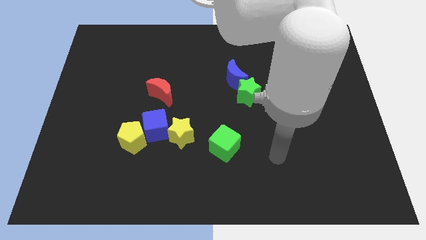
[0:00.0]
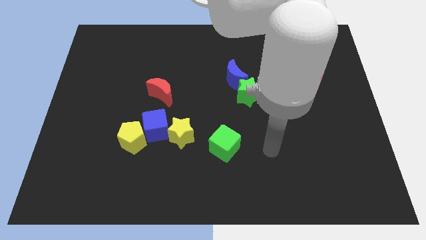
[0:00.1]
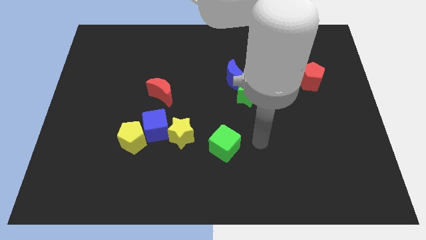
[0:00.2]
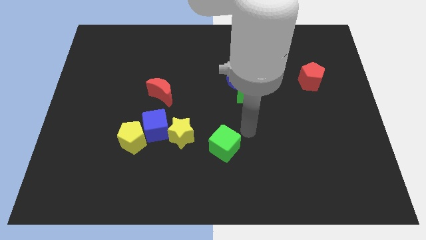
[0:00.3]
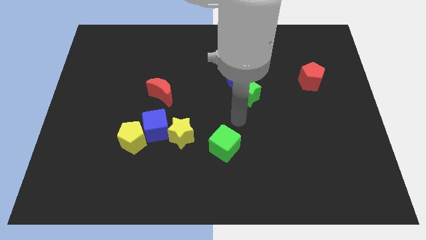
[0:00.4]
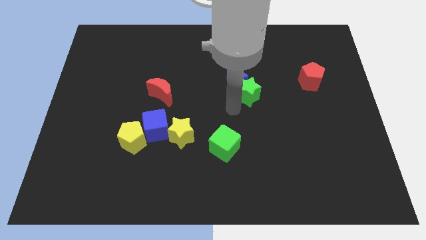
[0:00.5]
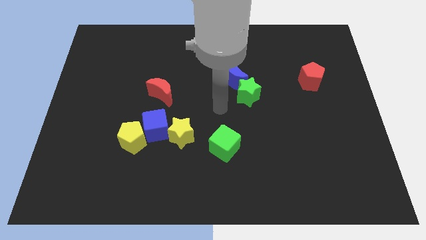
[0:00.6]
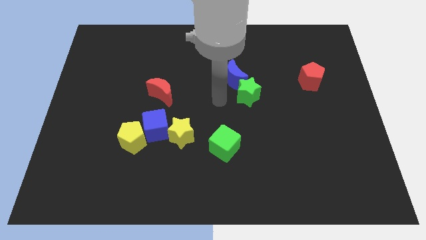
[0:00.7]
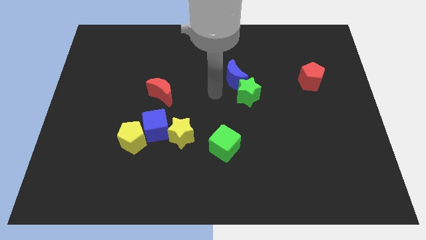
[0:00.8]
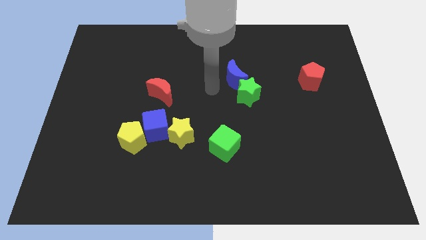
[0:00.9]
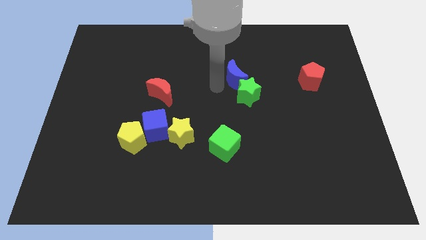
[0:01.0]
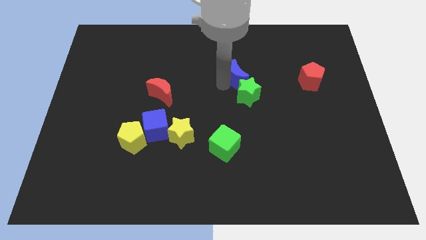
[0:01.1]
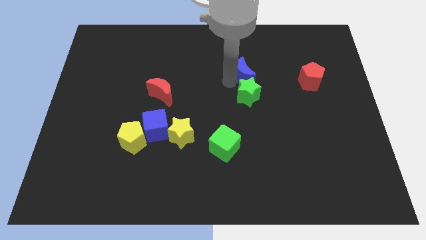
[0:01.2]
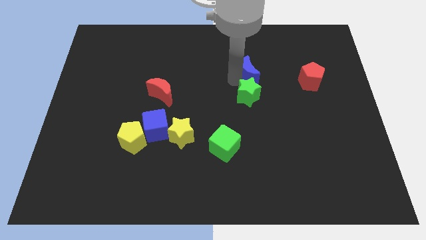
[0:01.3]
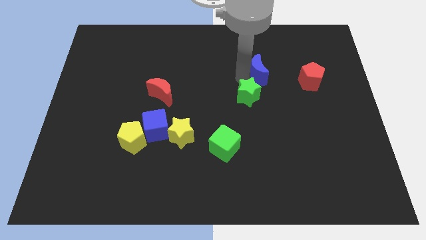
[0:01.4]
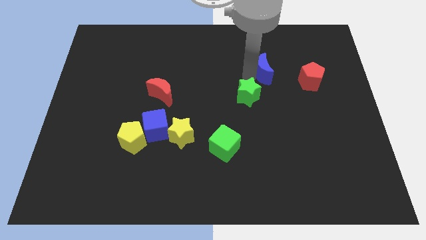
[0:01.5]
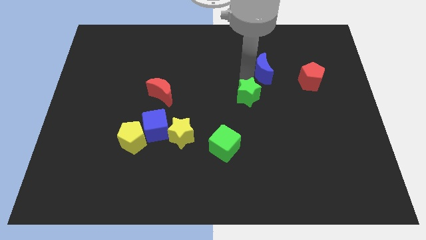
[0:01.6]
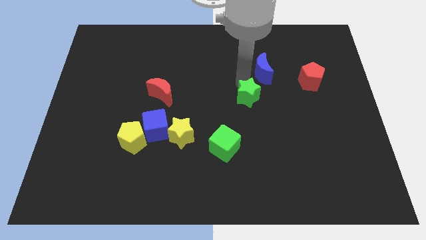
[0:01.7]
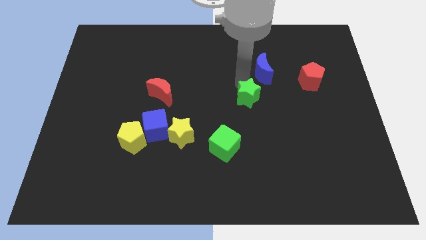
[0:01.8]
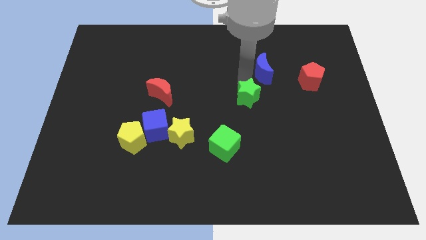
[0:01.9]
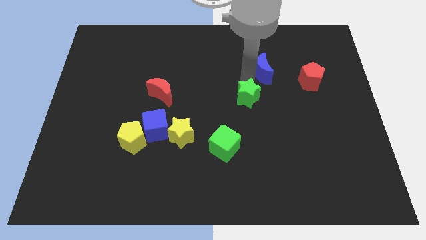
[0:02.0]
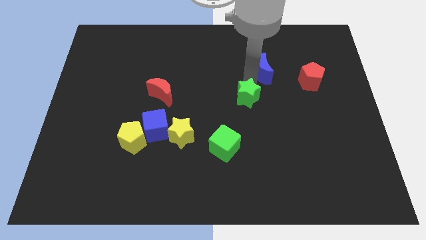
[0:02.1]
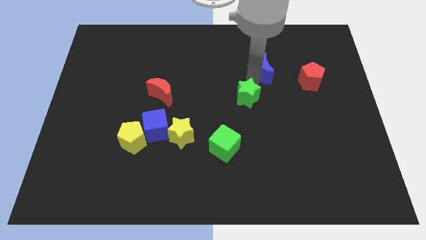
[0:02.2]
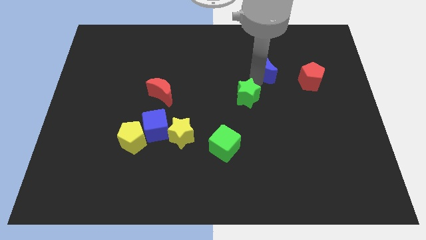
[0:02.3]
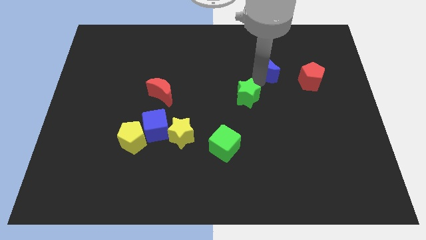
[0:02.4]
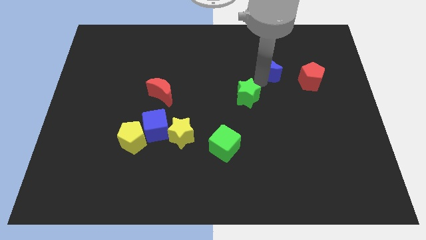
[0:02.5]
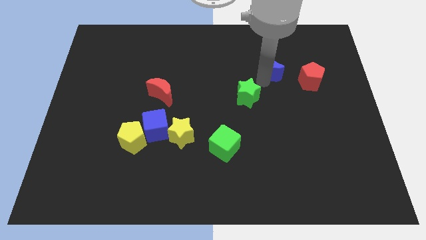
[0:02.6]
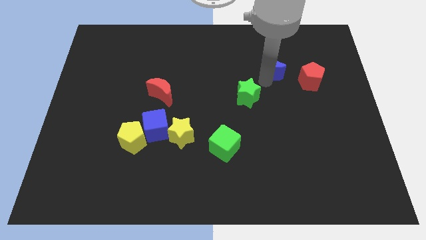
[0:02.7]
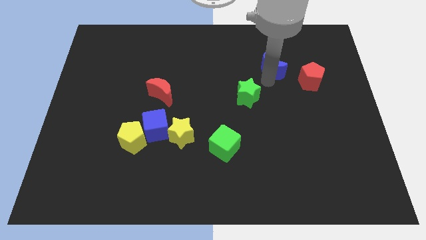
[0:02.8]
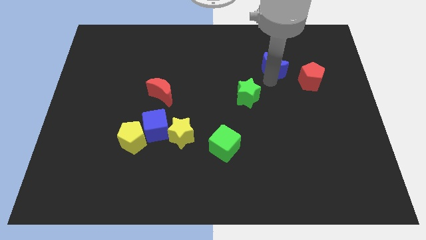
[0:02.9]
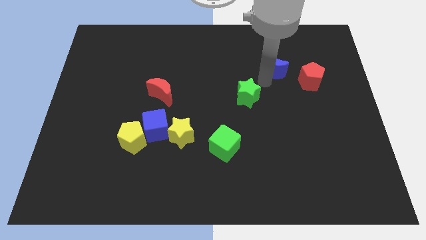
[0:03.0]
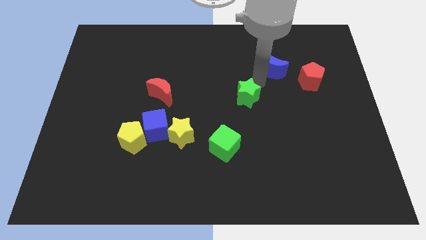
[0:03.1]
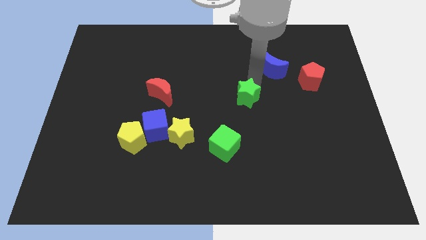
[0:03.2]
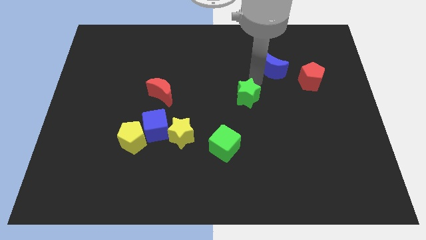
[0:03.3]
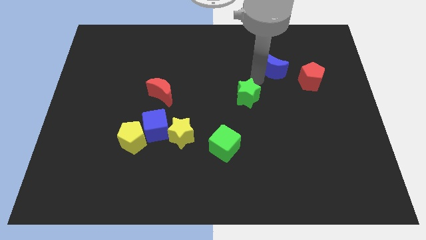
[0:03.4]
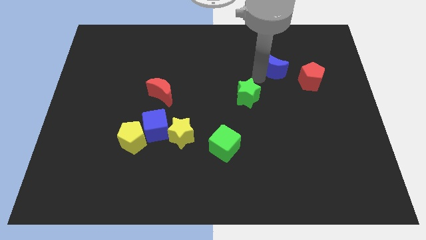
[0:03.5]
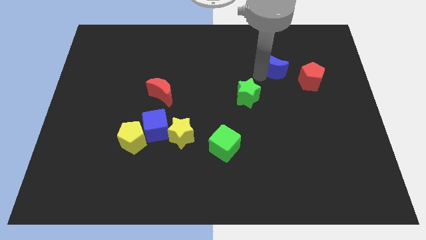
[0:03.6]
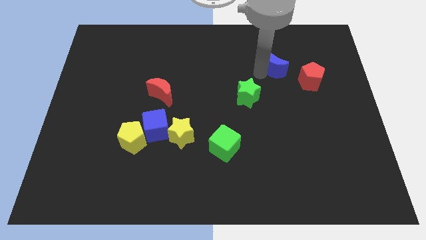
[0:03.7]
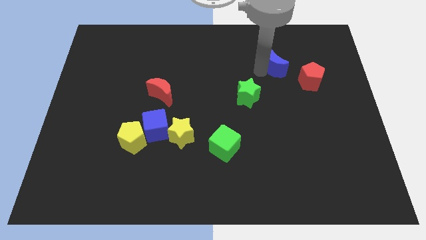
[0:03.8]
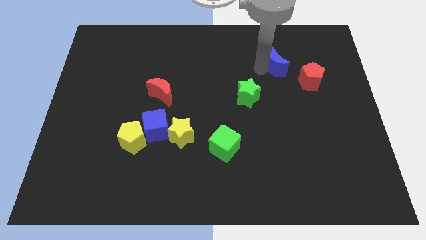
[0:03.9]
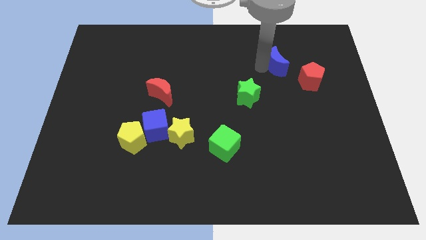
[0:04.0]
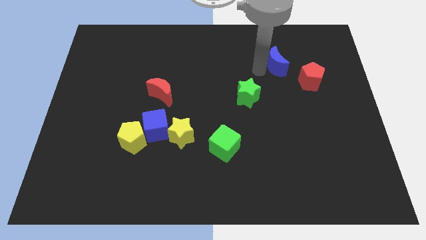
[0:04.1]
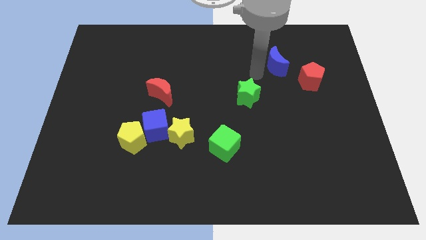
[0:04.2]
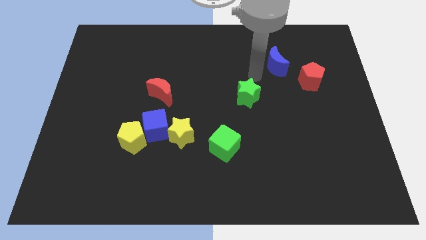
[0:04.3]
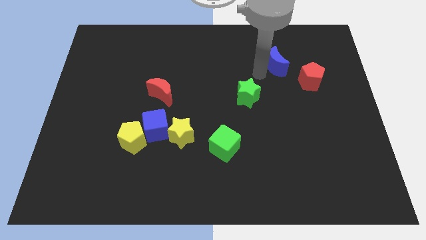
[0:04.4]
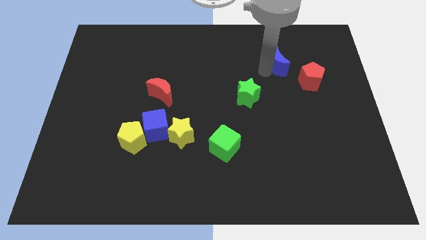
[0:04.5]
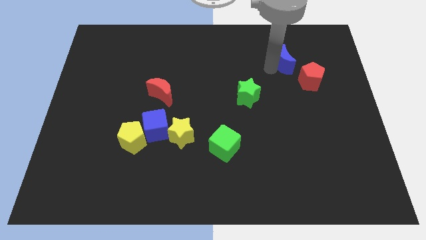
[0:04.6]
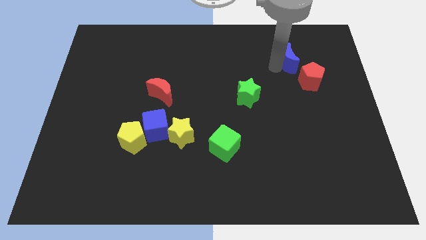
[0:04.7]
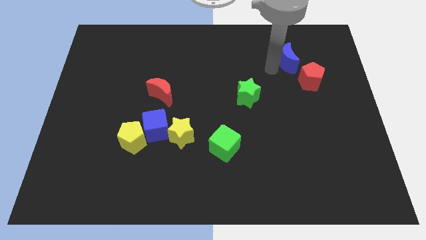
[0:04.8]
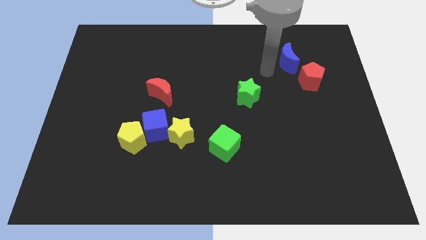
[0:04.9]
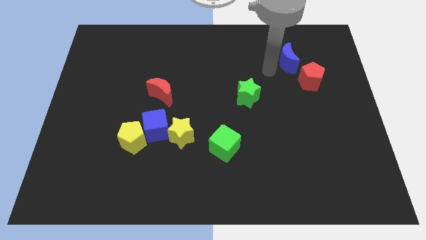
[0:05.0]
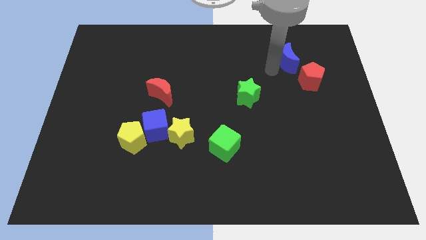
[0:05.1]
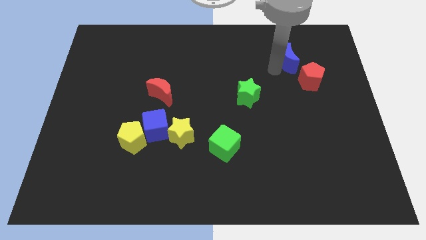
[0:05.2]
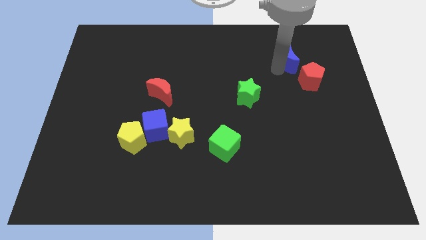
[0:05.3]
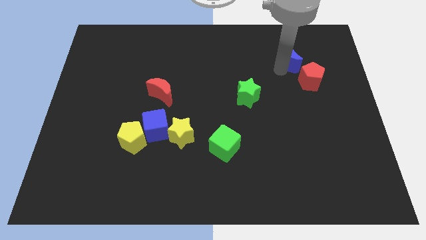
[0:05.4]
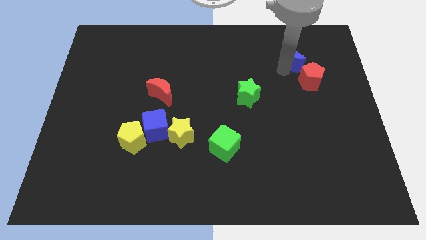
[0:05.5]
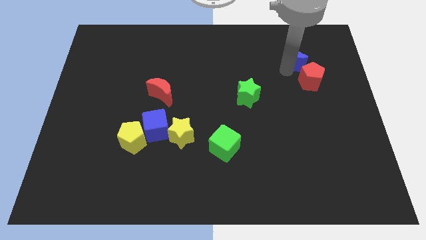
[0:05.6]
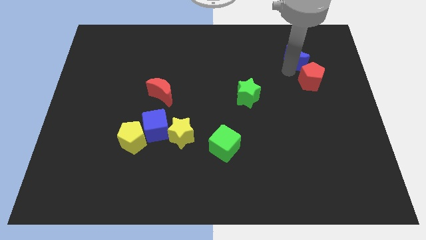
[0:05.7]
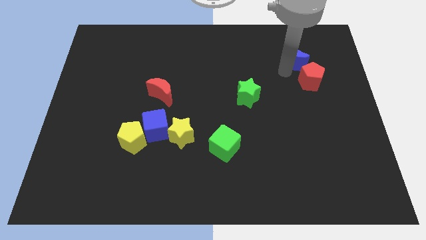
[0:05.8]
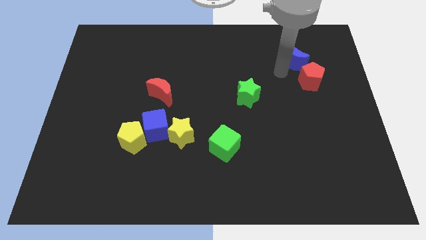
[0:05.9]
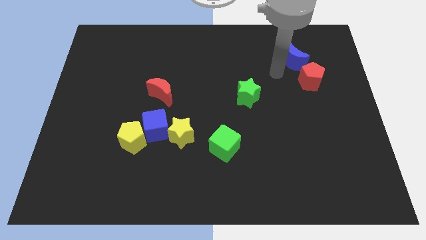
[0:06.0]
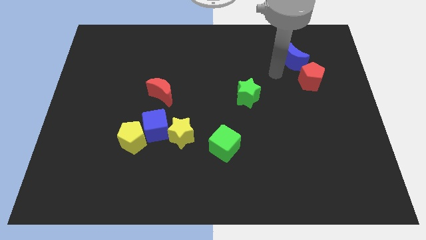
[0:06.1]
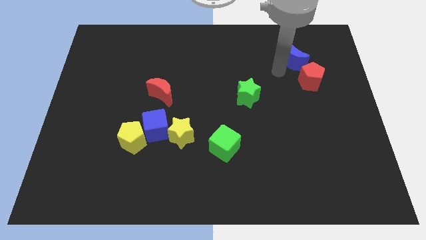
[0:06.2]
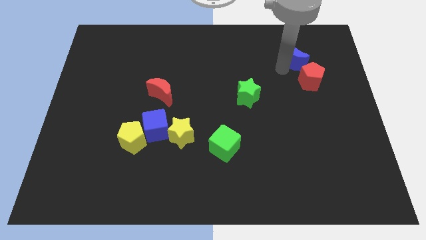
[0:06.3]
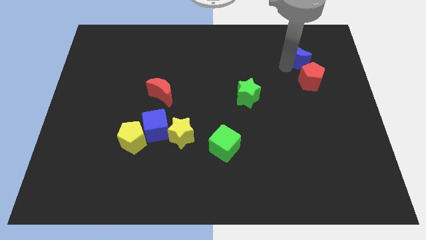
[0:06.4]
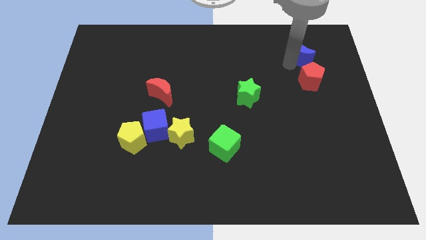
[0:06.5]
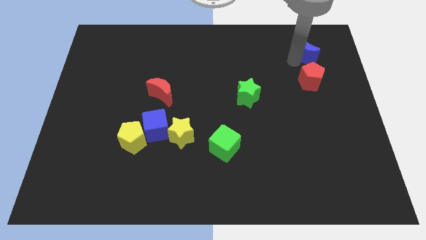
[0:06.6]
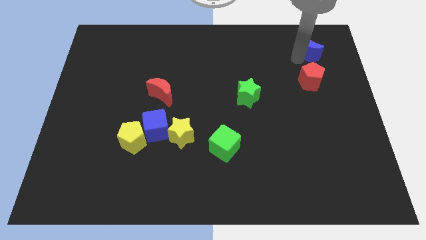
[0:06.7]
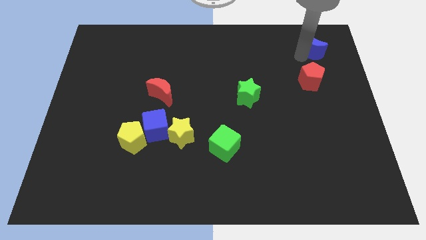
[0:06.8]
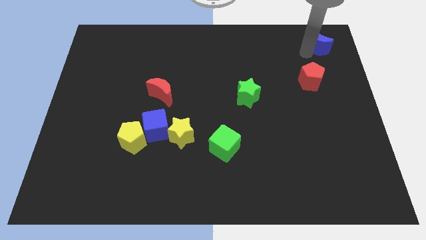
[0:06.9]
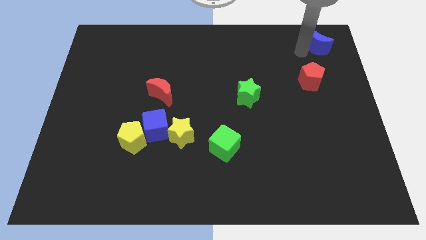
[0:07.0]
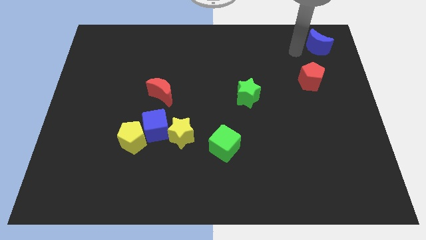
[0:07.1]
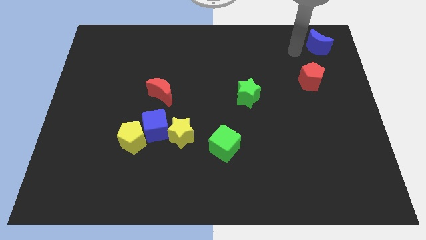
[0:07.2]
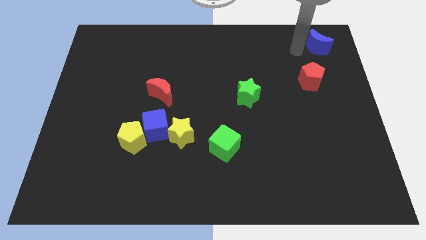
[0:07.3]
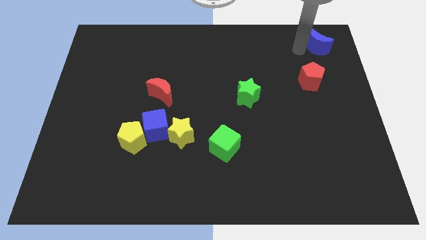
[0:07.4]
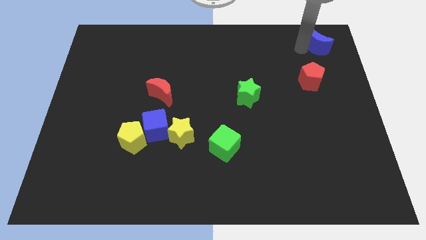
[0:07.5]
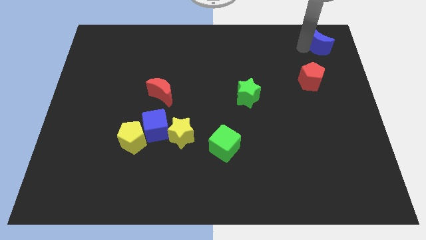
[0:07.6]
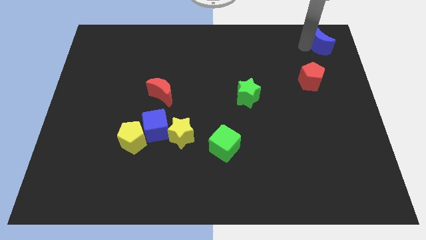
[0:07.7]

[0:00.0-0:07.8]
move the blue moon to the top right corner
